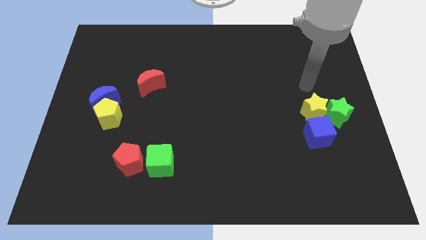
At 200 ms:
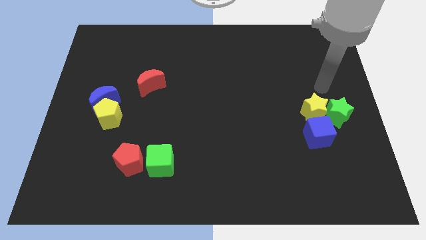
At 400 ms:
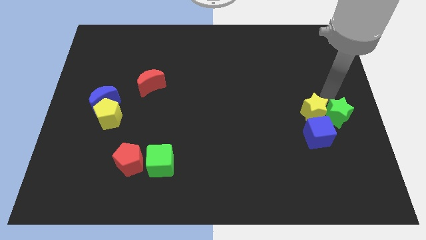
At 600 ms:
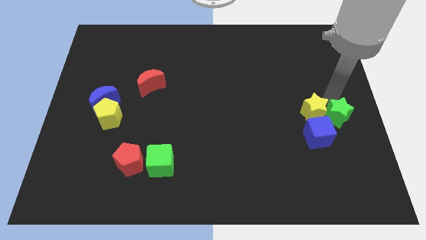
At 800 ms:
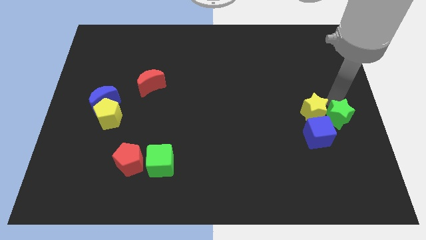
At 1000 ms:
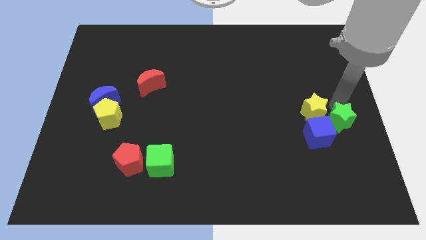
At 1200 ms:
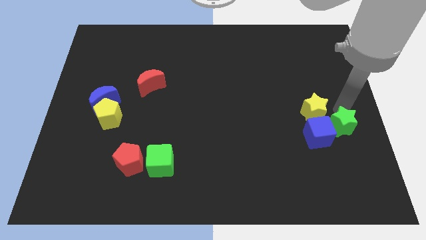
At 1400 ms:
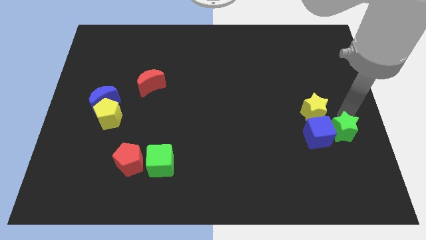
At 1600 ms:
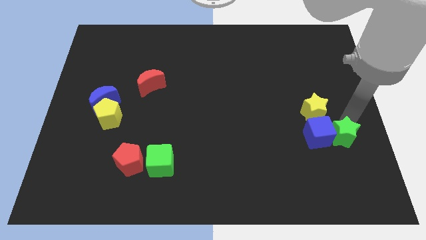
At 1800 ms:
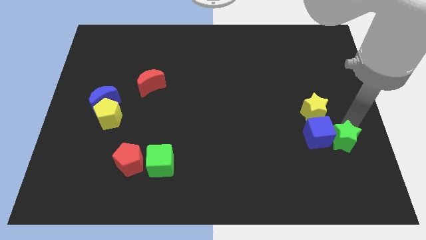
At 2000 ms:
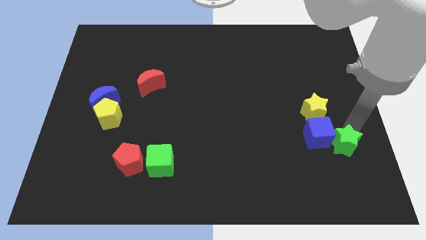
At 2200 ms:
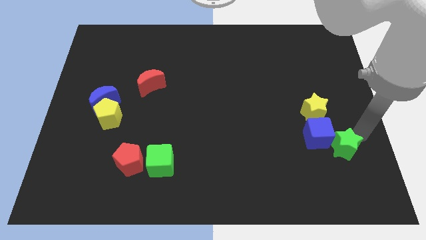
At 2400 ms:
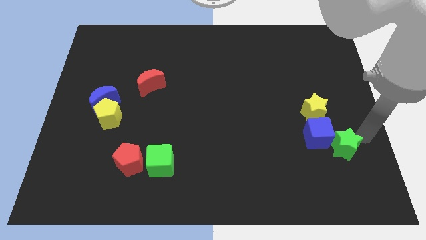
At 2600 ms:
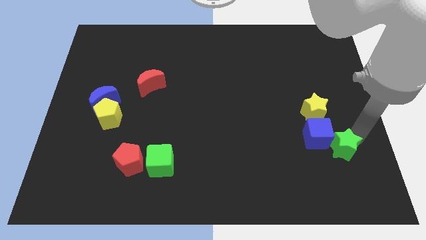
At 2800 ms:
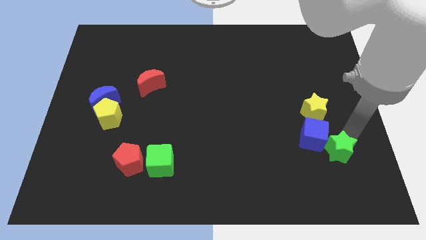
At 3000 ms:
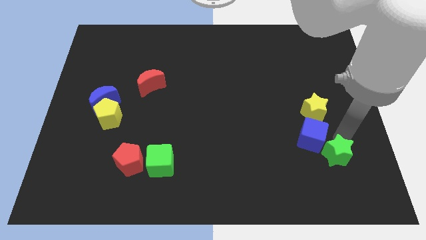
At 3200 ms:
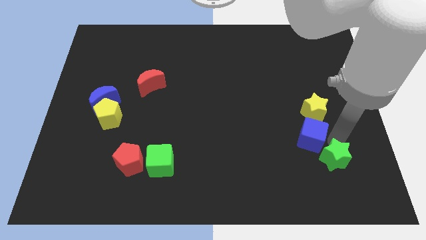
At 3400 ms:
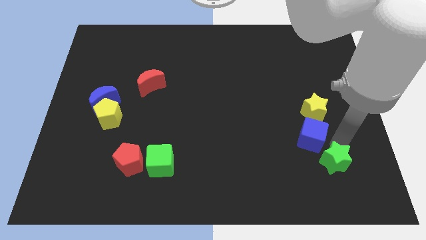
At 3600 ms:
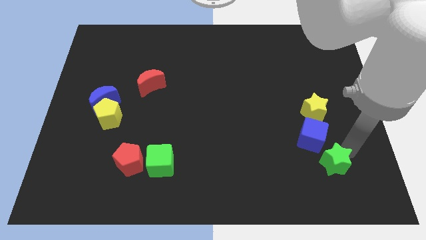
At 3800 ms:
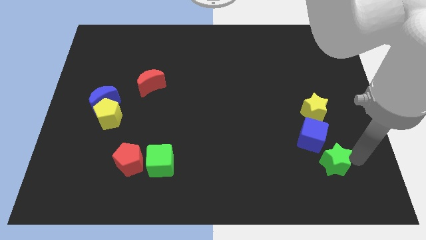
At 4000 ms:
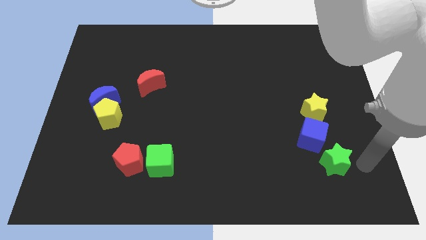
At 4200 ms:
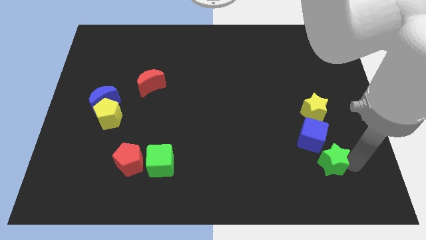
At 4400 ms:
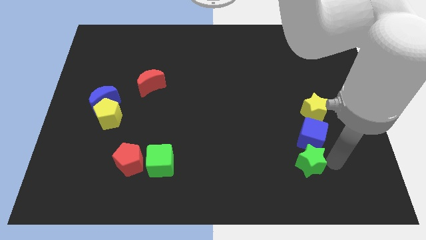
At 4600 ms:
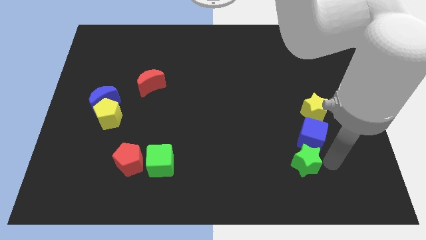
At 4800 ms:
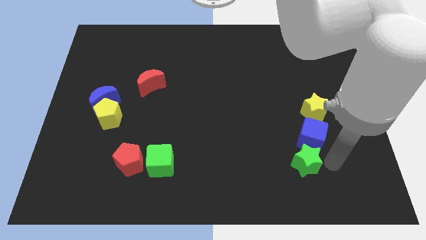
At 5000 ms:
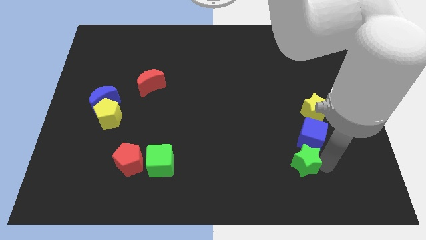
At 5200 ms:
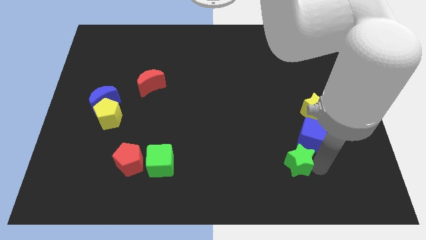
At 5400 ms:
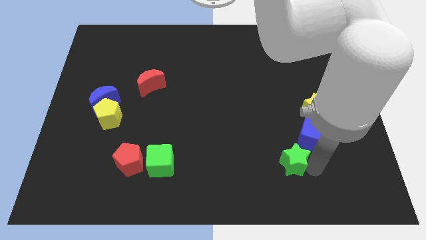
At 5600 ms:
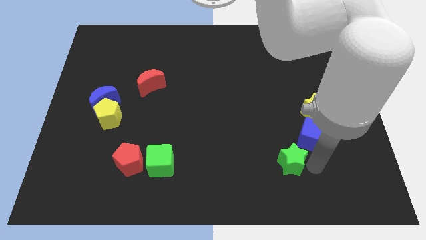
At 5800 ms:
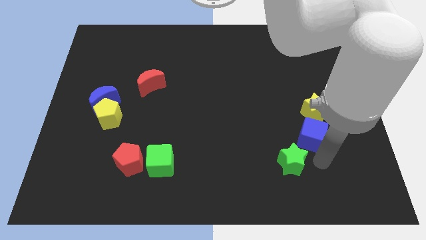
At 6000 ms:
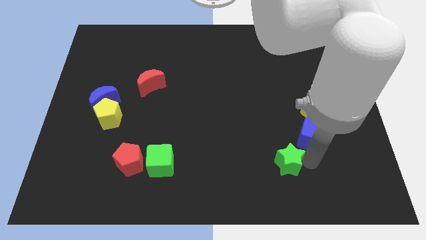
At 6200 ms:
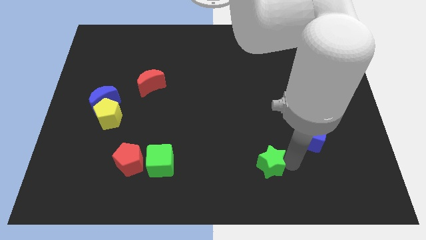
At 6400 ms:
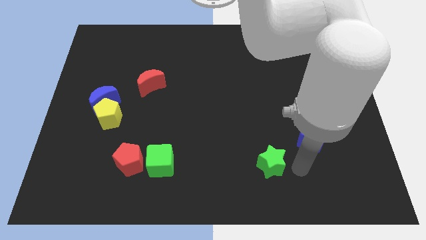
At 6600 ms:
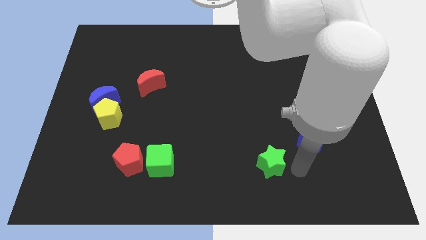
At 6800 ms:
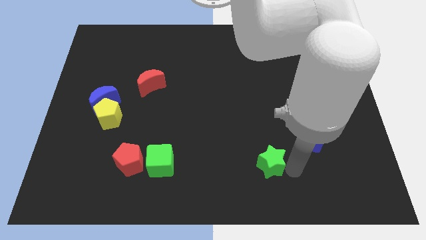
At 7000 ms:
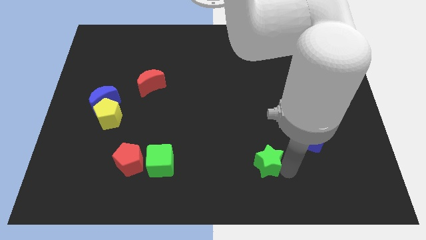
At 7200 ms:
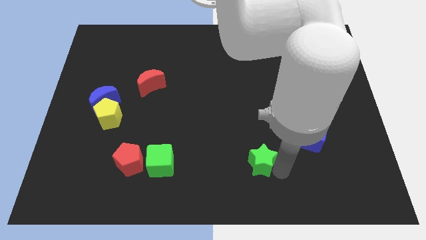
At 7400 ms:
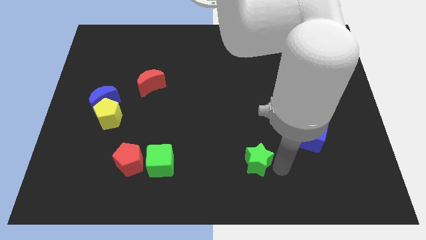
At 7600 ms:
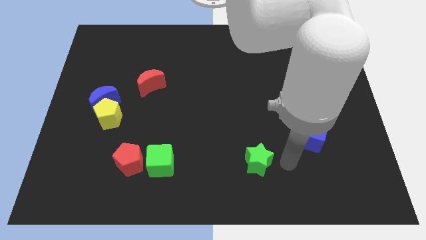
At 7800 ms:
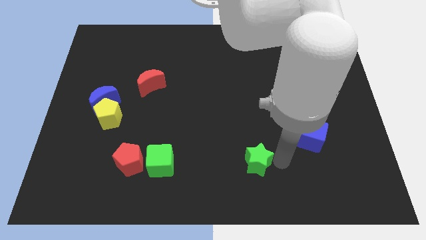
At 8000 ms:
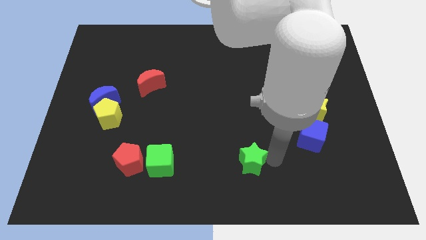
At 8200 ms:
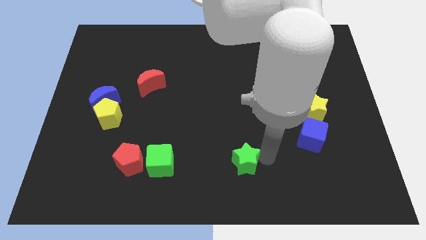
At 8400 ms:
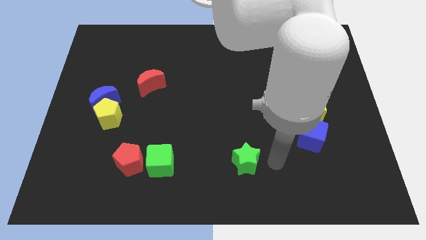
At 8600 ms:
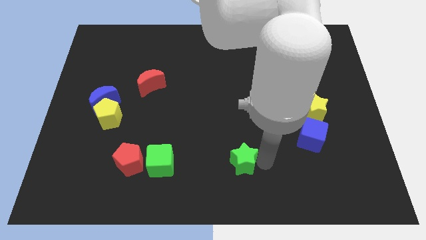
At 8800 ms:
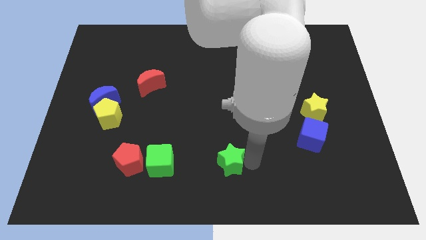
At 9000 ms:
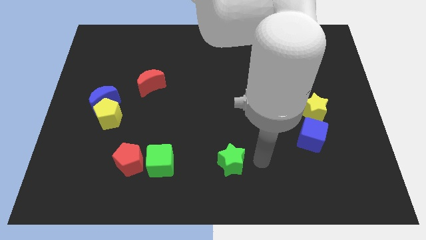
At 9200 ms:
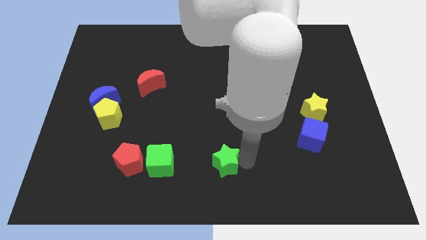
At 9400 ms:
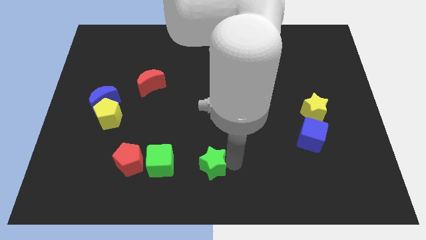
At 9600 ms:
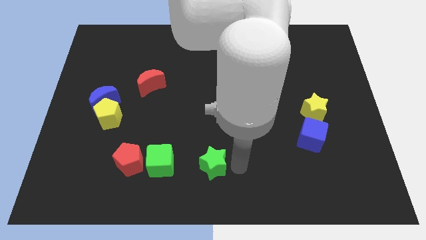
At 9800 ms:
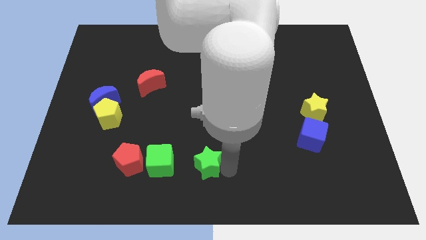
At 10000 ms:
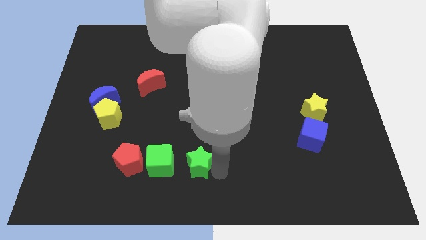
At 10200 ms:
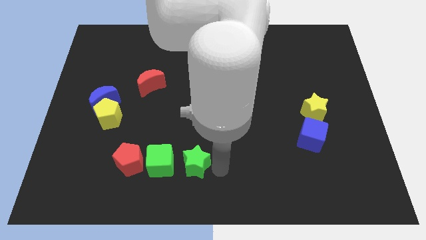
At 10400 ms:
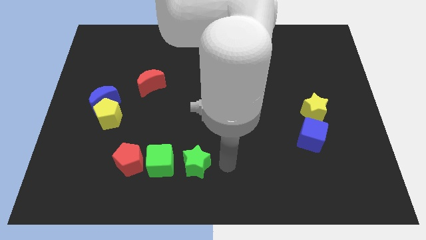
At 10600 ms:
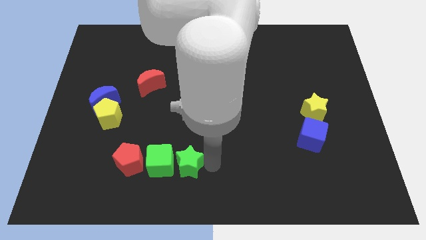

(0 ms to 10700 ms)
slide the green star next to the green cube

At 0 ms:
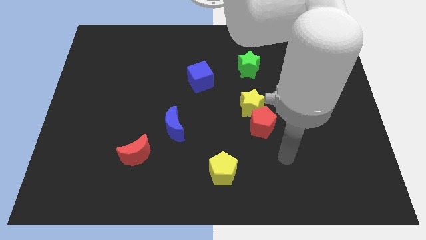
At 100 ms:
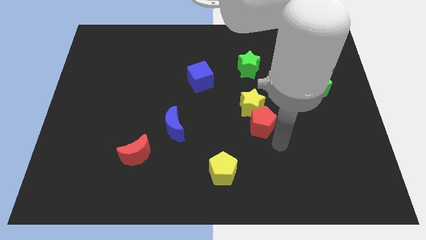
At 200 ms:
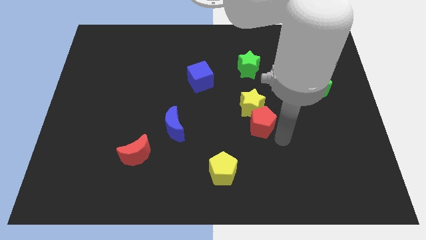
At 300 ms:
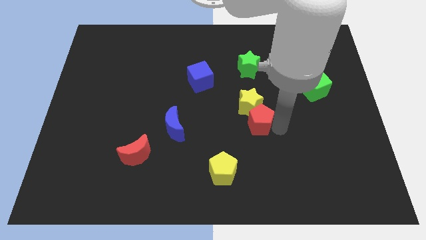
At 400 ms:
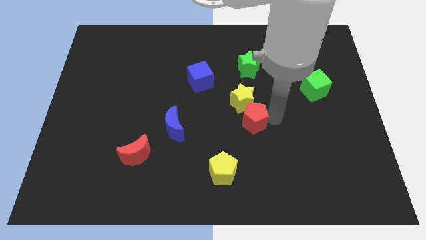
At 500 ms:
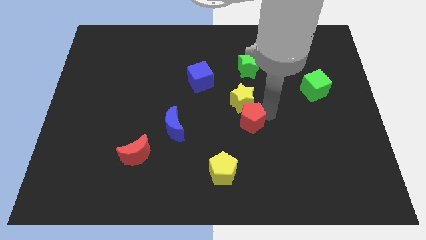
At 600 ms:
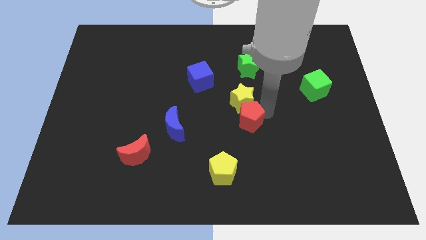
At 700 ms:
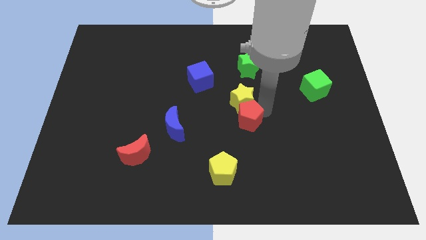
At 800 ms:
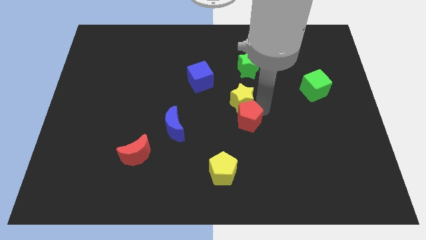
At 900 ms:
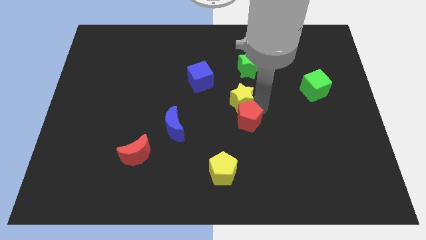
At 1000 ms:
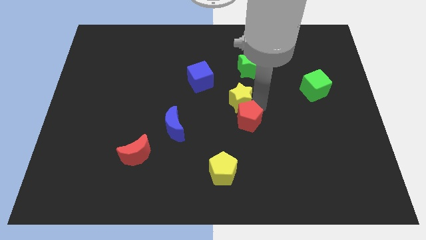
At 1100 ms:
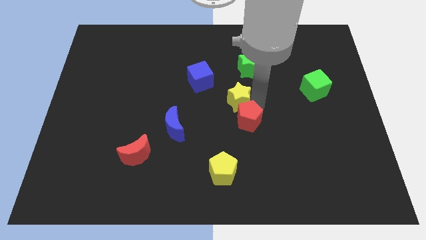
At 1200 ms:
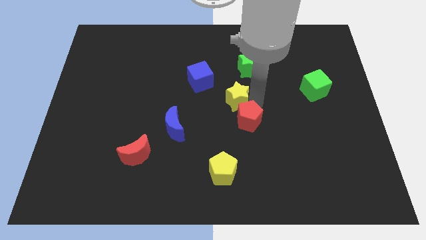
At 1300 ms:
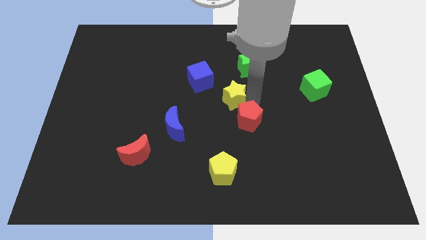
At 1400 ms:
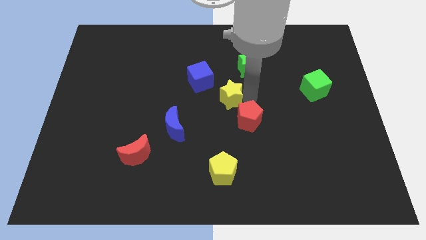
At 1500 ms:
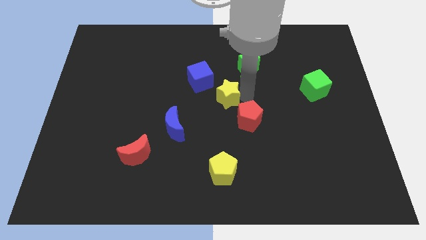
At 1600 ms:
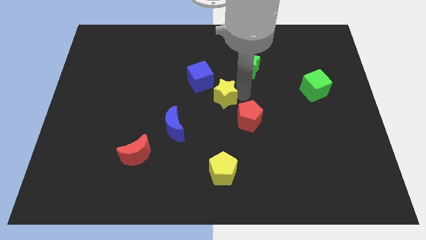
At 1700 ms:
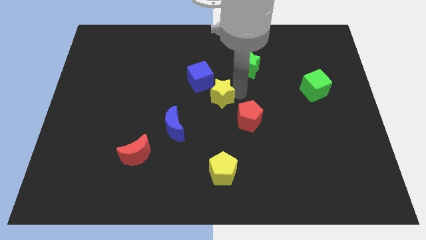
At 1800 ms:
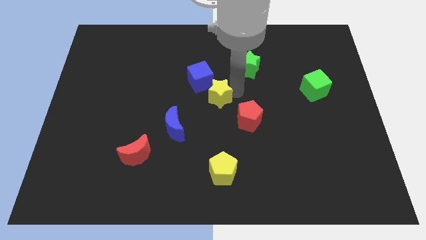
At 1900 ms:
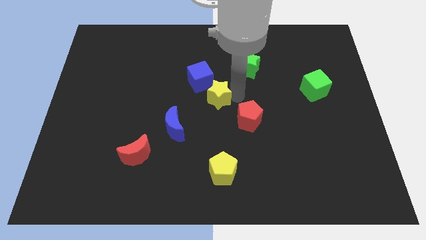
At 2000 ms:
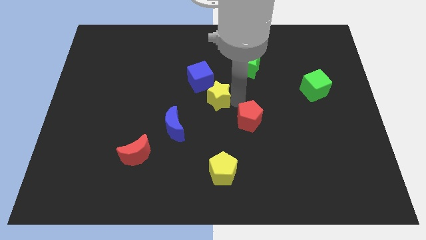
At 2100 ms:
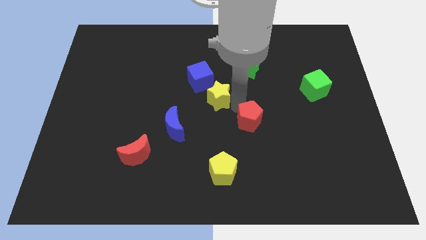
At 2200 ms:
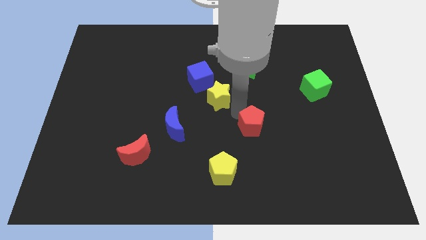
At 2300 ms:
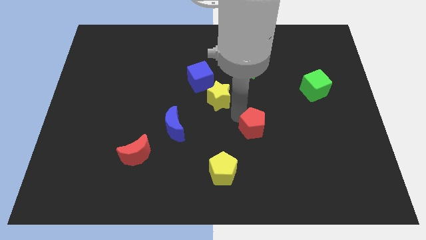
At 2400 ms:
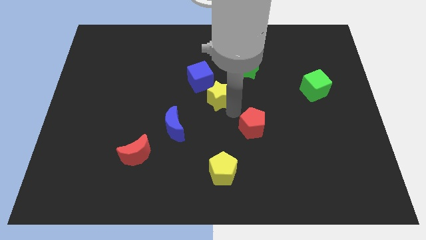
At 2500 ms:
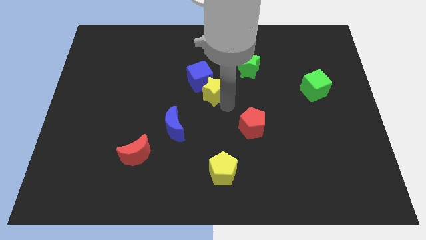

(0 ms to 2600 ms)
push the yellow star close to the blue cube
